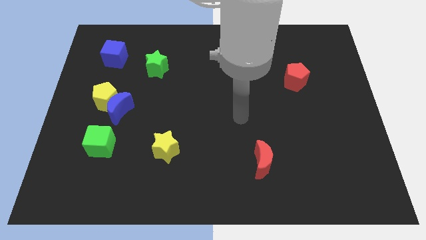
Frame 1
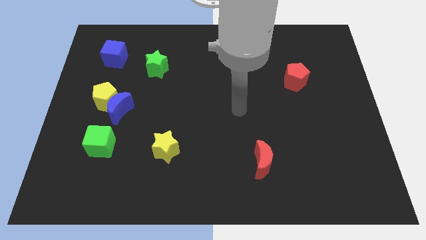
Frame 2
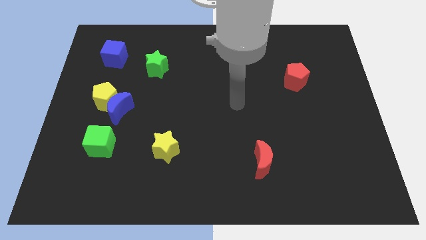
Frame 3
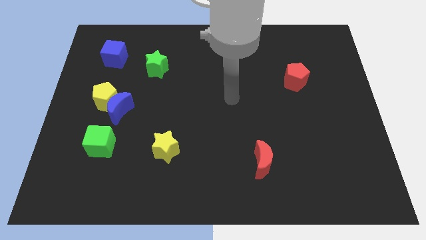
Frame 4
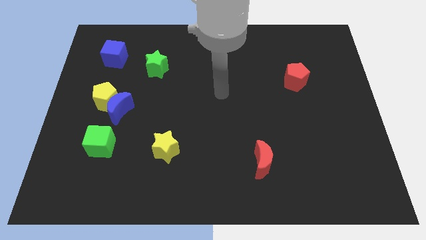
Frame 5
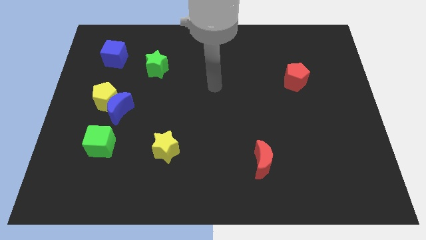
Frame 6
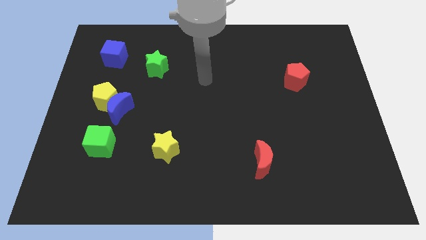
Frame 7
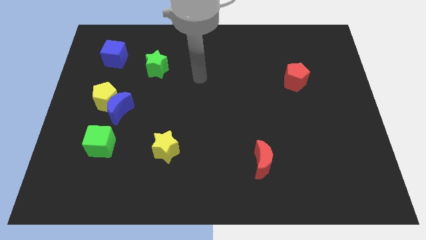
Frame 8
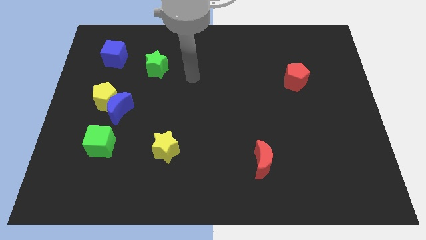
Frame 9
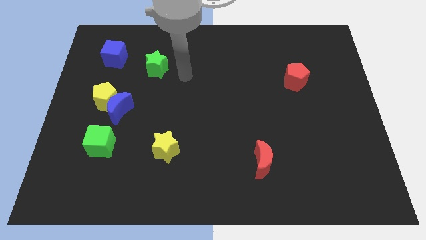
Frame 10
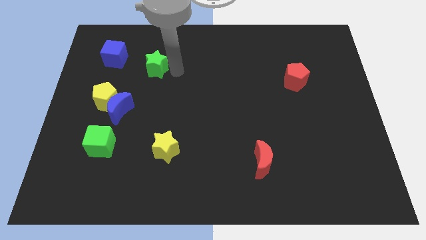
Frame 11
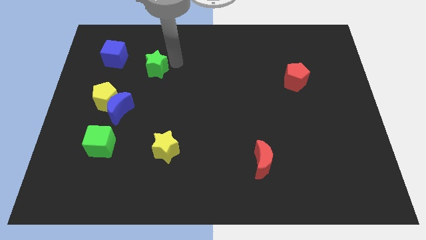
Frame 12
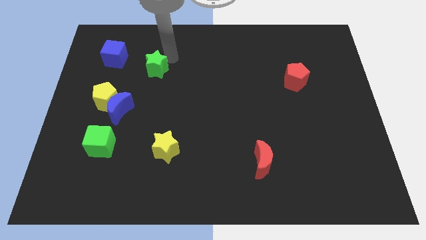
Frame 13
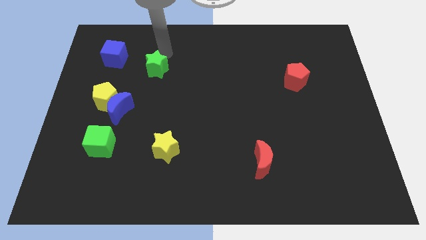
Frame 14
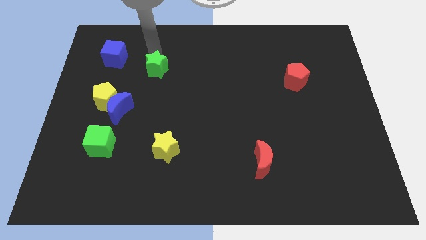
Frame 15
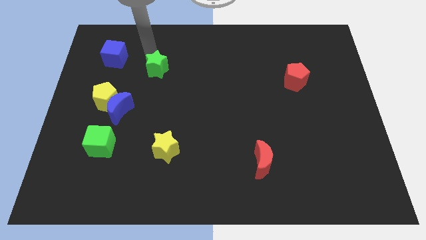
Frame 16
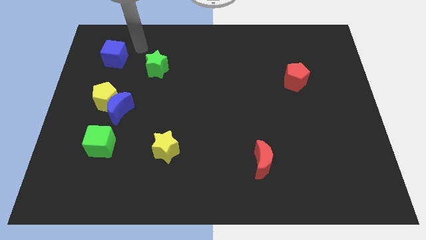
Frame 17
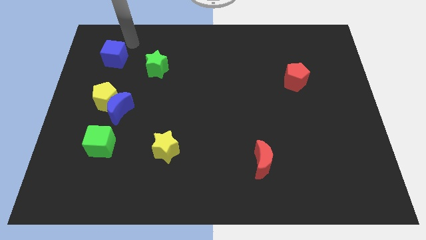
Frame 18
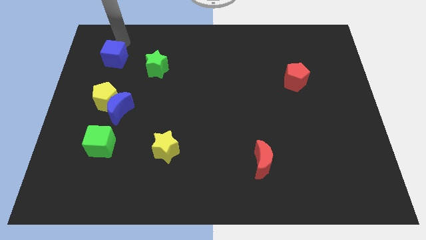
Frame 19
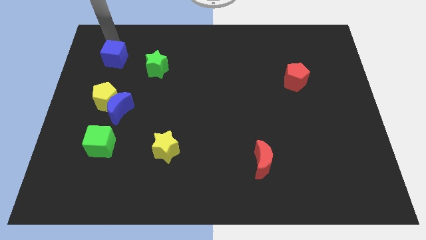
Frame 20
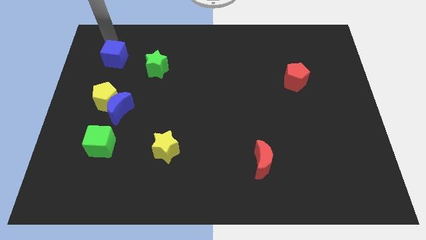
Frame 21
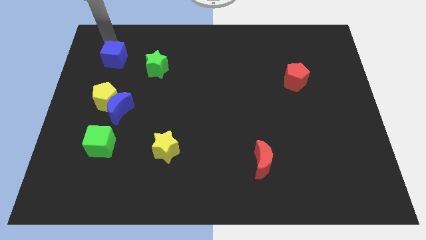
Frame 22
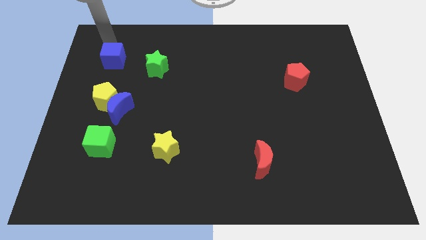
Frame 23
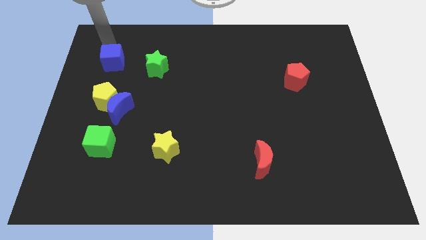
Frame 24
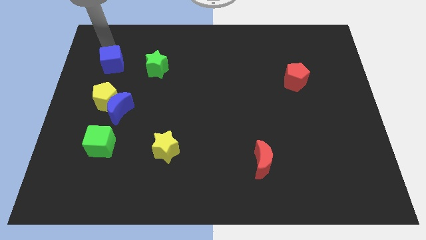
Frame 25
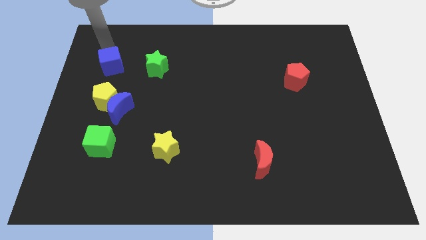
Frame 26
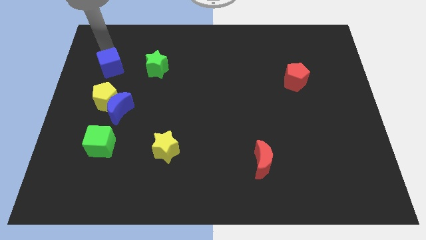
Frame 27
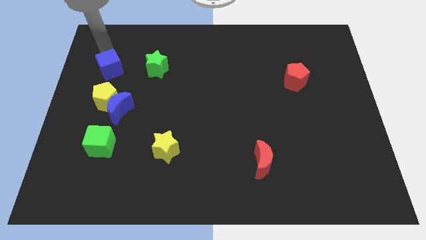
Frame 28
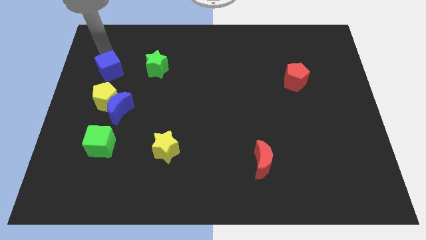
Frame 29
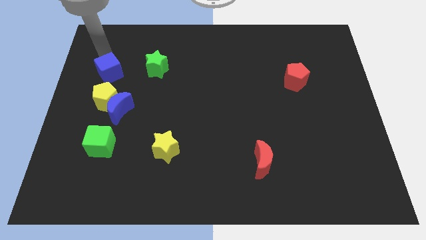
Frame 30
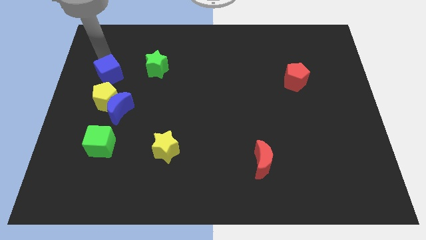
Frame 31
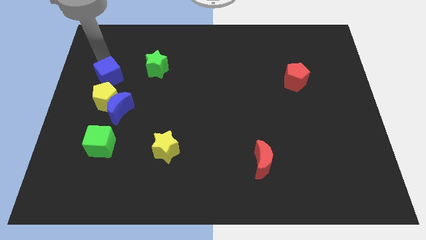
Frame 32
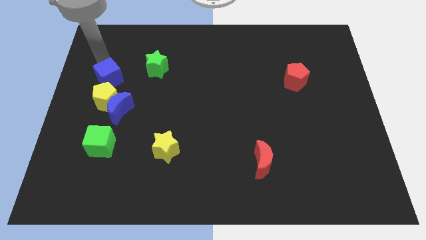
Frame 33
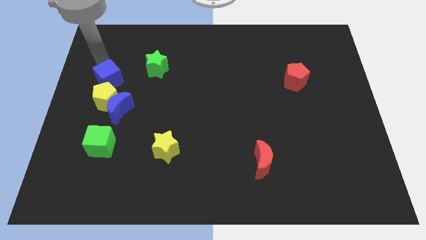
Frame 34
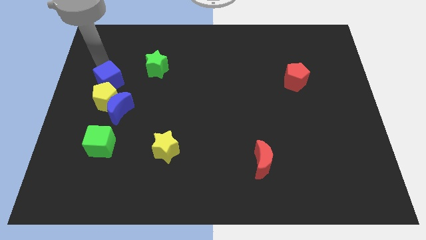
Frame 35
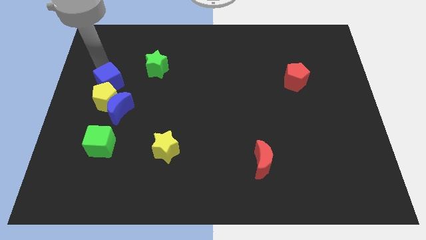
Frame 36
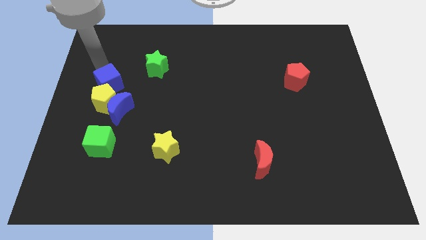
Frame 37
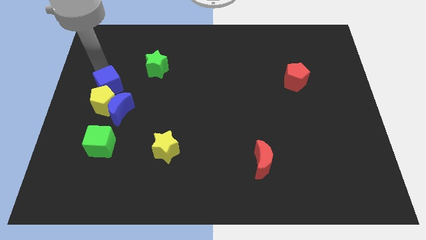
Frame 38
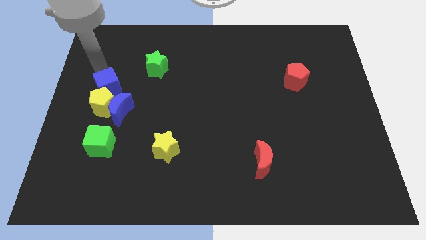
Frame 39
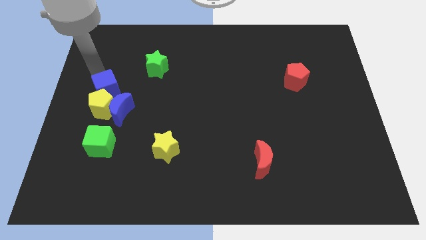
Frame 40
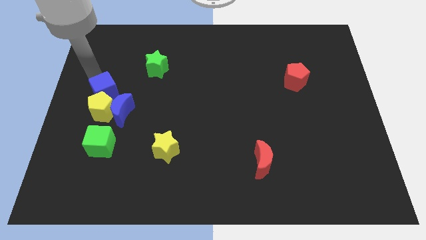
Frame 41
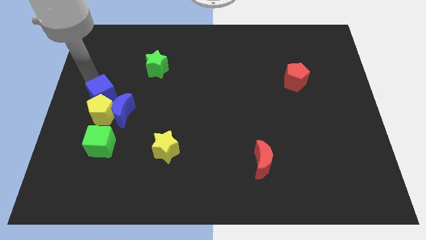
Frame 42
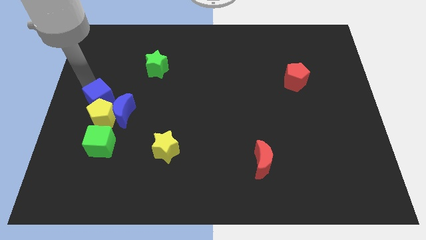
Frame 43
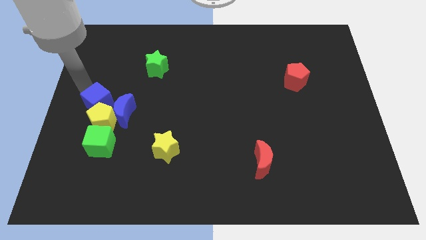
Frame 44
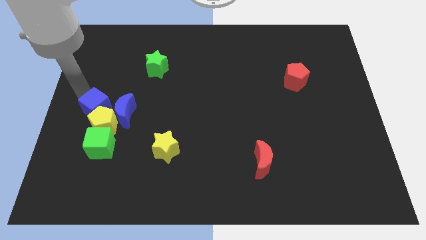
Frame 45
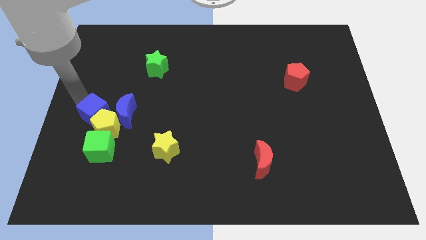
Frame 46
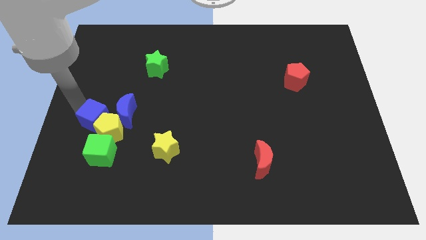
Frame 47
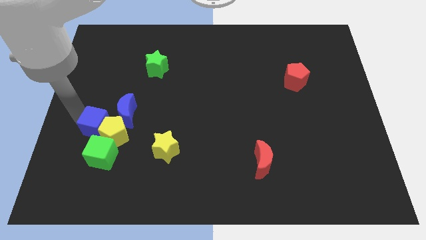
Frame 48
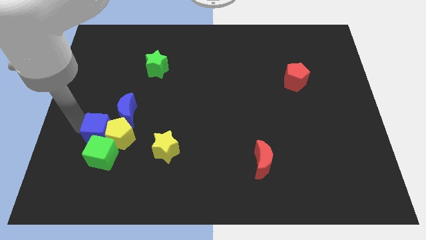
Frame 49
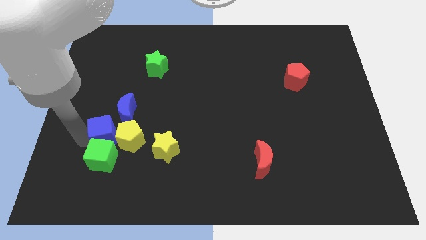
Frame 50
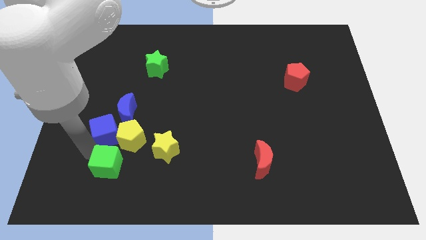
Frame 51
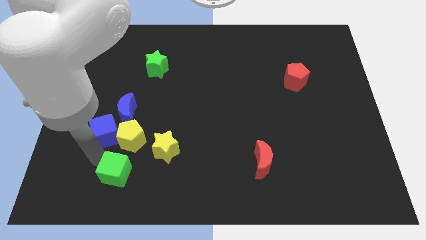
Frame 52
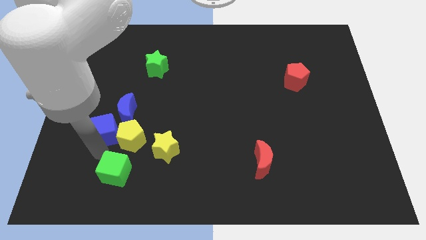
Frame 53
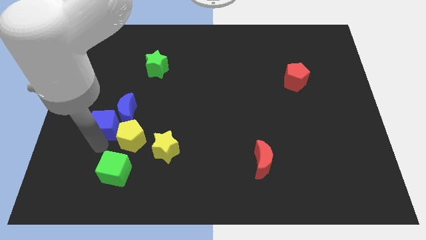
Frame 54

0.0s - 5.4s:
slide the blue cube close to the blue moon

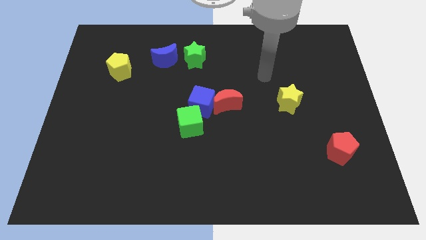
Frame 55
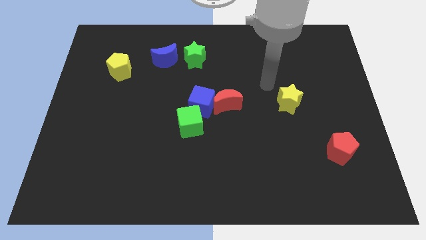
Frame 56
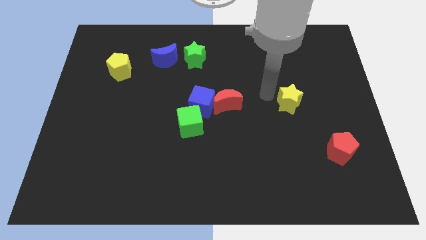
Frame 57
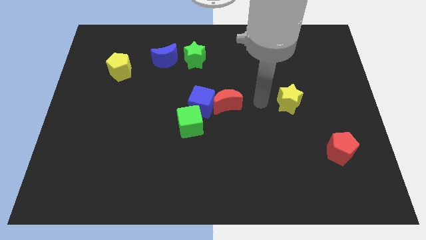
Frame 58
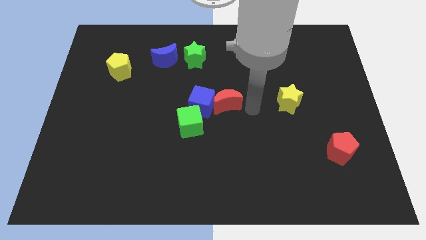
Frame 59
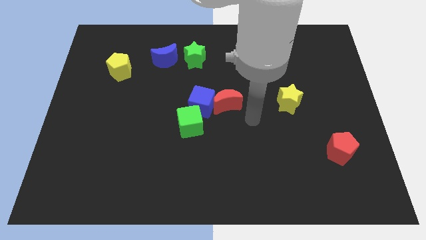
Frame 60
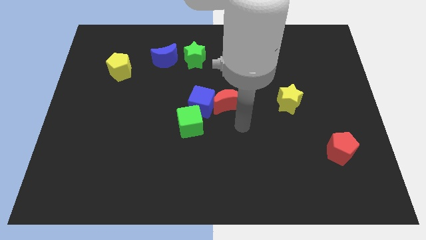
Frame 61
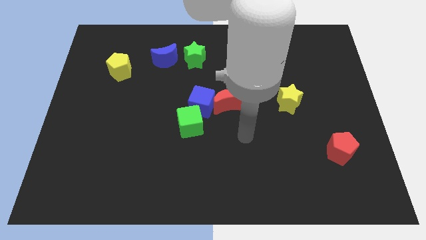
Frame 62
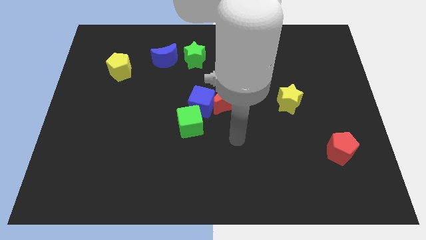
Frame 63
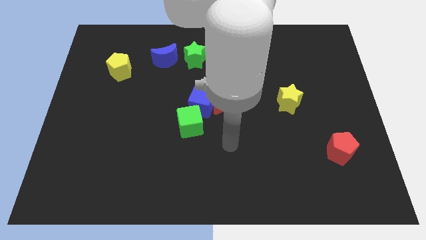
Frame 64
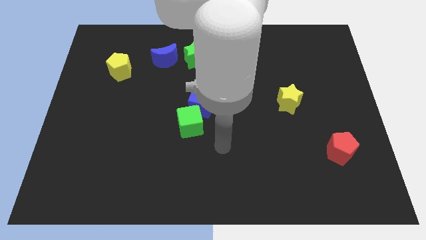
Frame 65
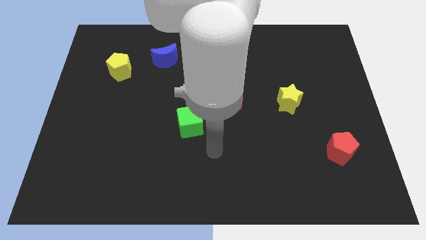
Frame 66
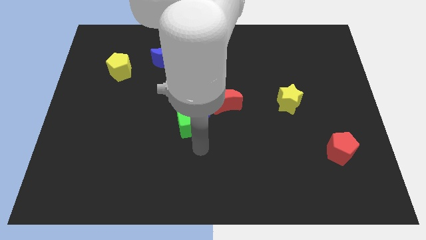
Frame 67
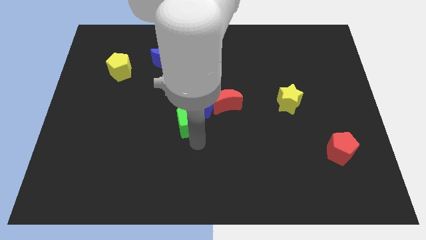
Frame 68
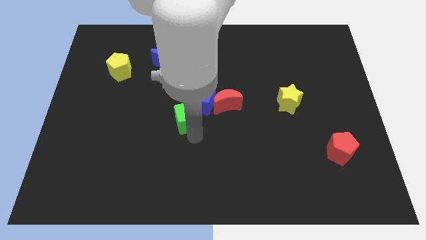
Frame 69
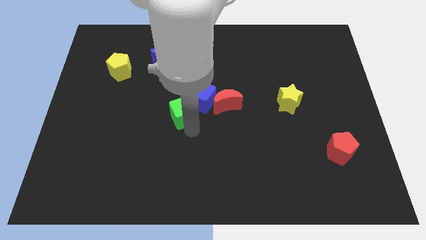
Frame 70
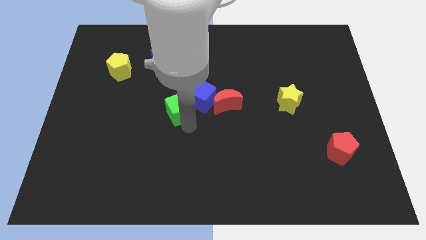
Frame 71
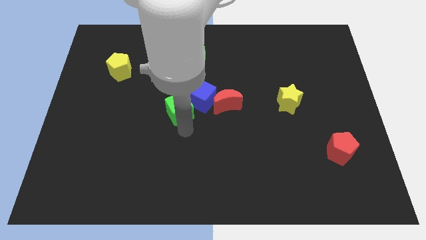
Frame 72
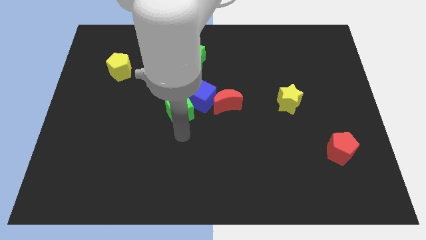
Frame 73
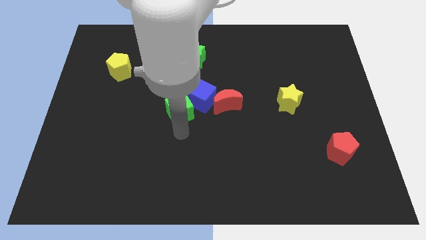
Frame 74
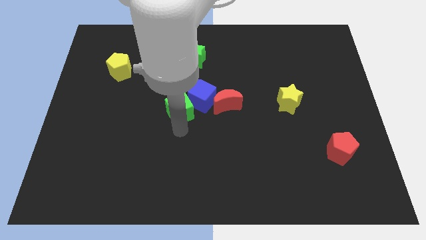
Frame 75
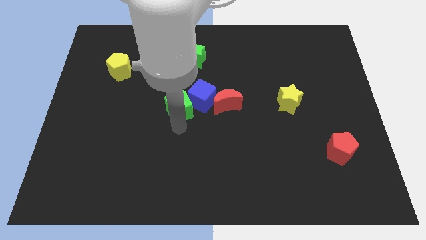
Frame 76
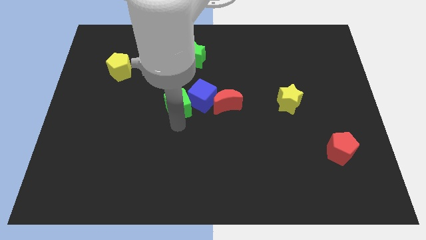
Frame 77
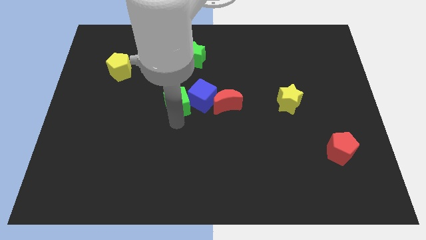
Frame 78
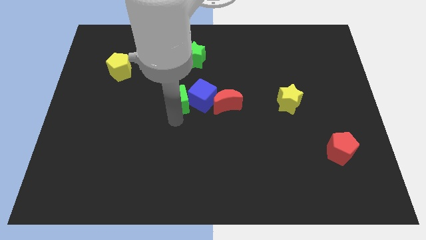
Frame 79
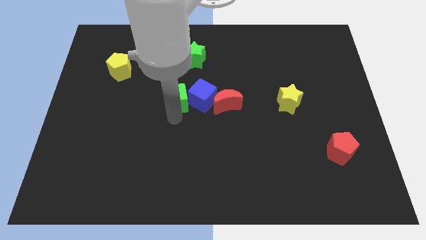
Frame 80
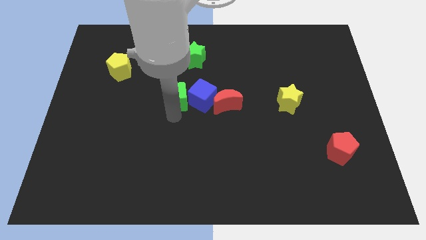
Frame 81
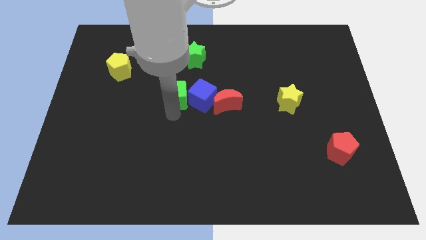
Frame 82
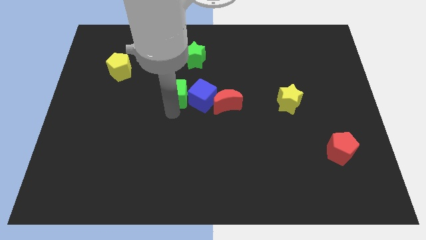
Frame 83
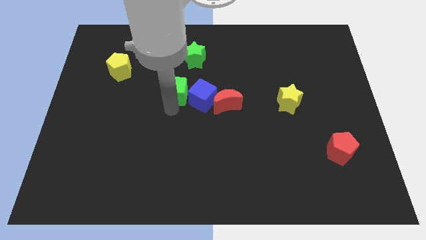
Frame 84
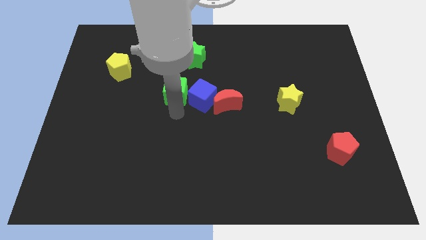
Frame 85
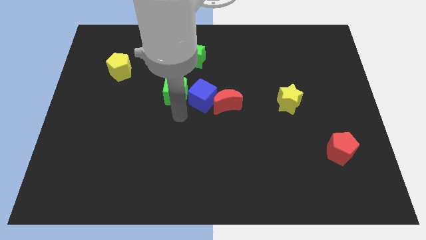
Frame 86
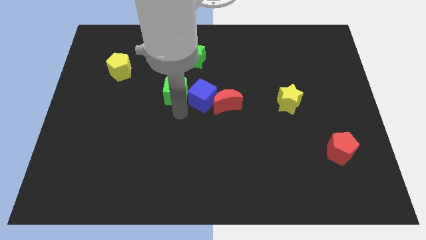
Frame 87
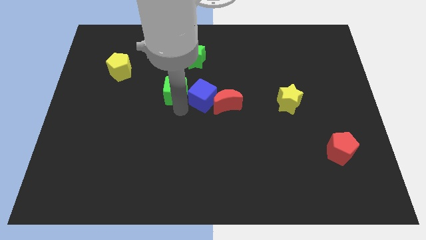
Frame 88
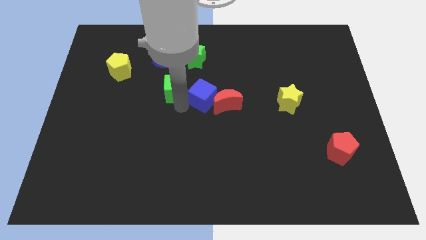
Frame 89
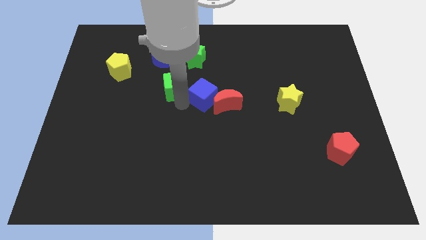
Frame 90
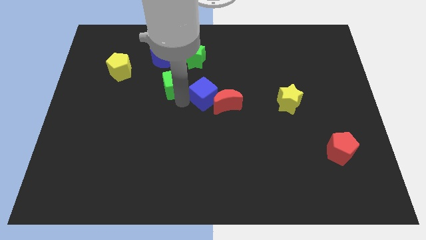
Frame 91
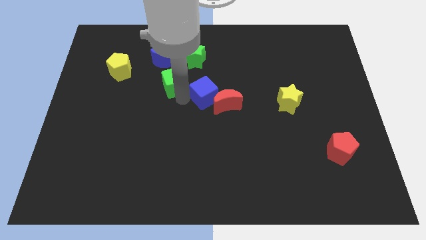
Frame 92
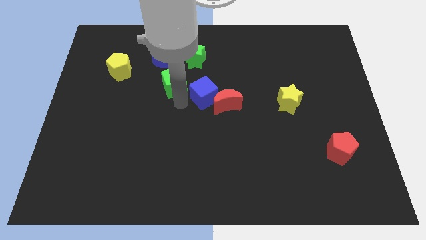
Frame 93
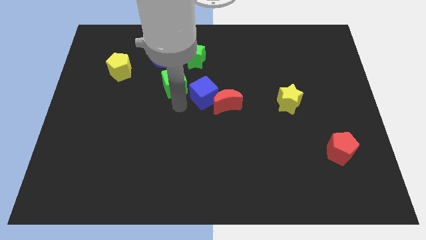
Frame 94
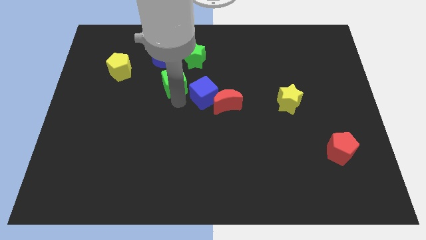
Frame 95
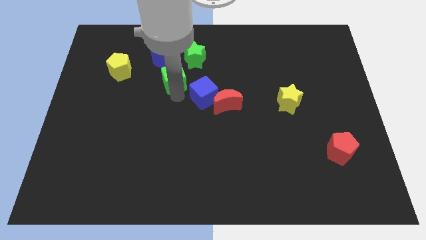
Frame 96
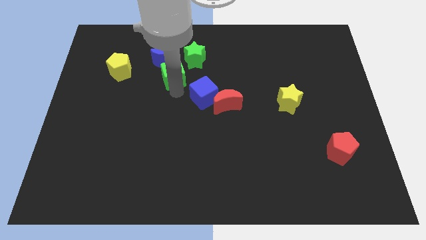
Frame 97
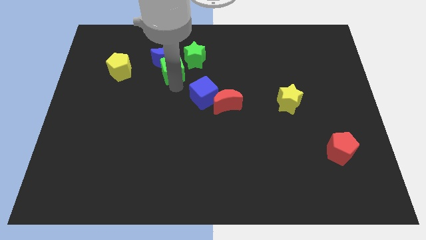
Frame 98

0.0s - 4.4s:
move the green cube towards the blue moon
